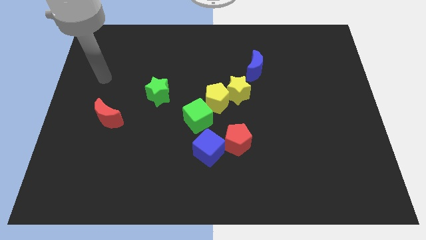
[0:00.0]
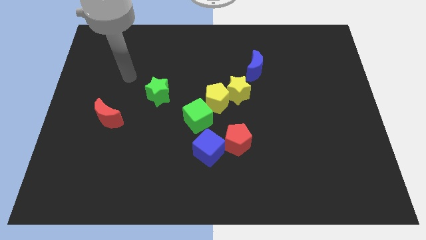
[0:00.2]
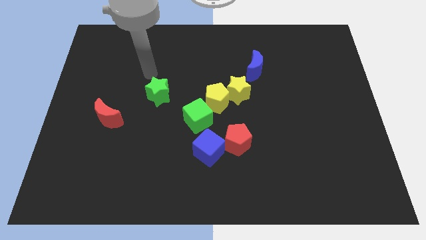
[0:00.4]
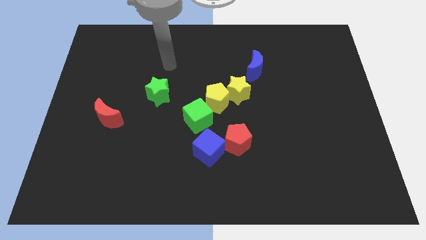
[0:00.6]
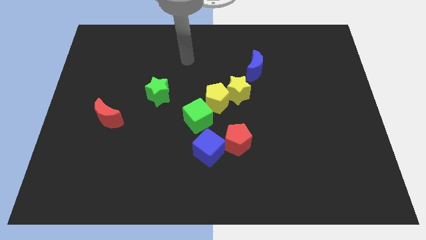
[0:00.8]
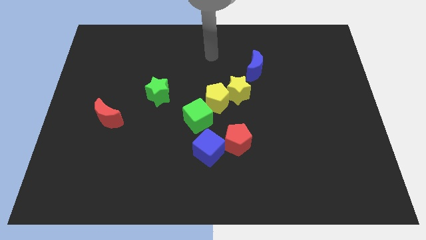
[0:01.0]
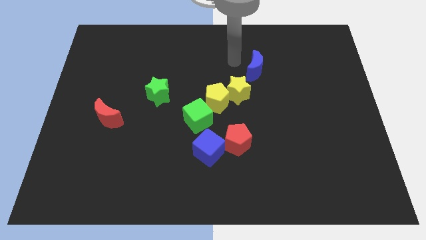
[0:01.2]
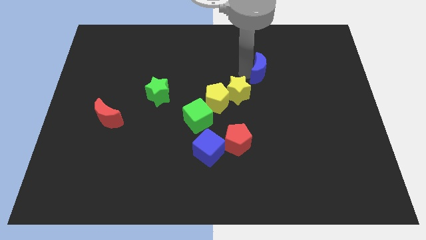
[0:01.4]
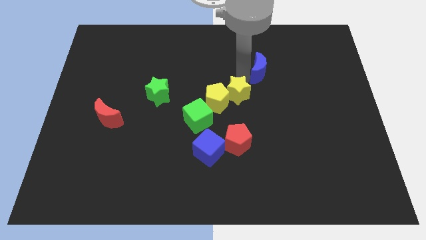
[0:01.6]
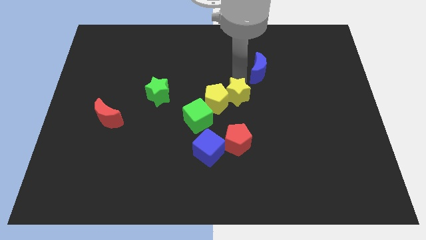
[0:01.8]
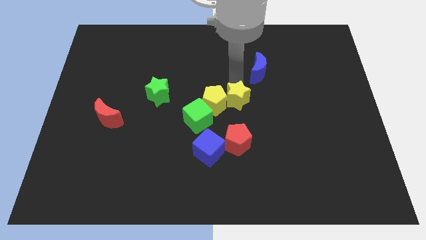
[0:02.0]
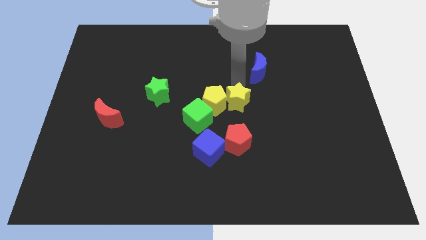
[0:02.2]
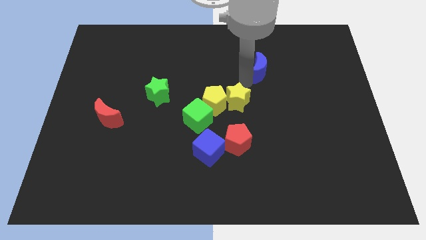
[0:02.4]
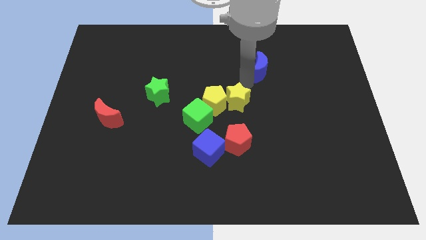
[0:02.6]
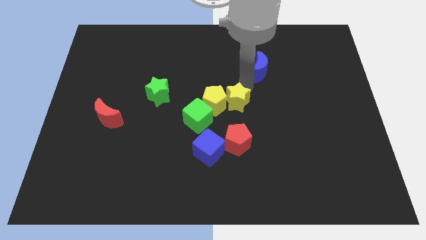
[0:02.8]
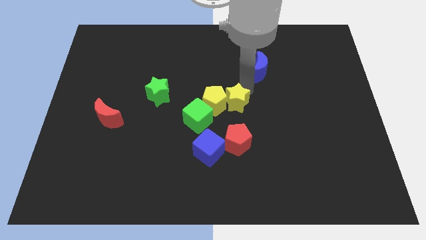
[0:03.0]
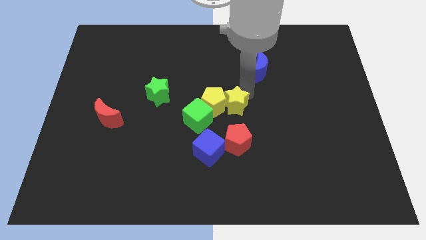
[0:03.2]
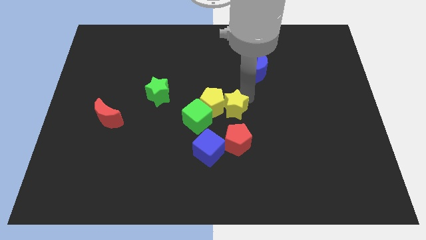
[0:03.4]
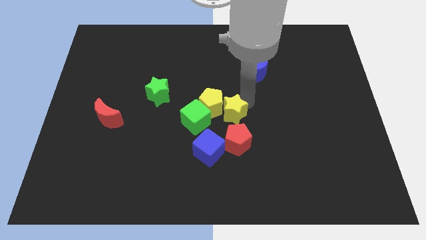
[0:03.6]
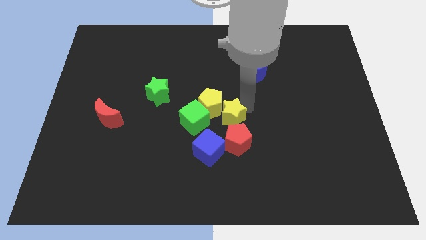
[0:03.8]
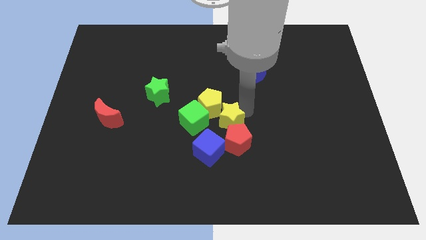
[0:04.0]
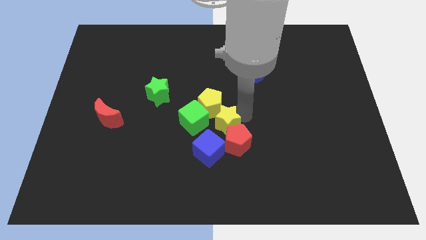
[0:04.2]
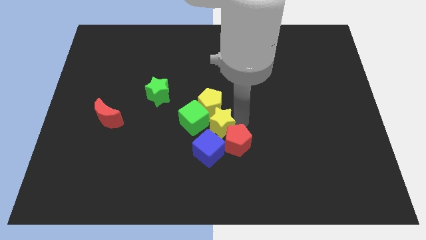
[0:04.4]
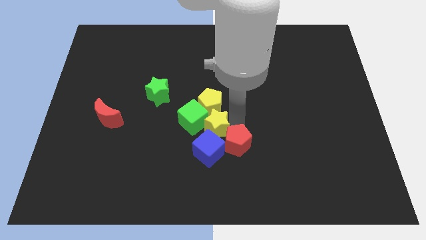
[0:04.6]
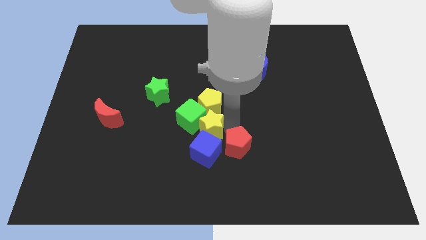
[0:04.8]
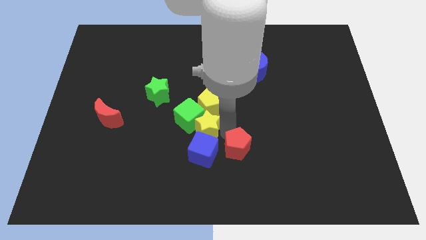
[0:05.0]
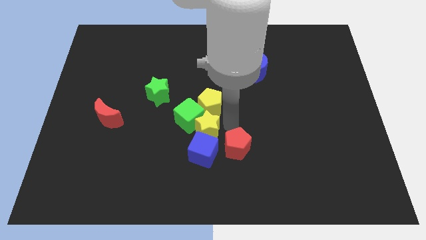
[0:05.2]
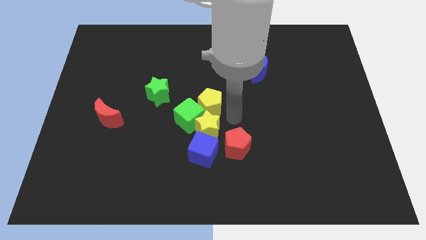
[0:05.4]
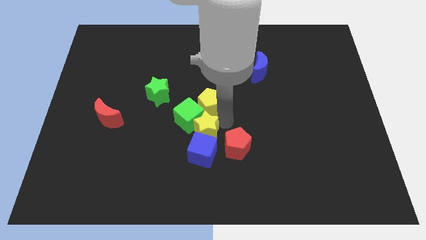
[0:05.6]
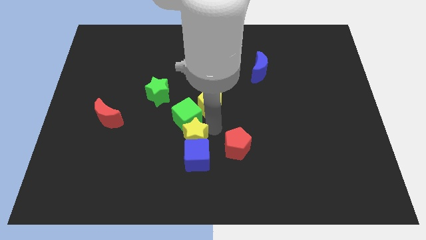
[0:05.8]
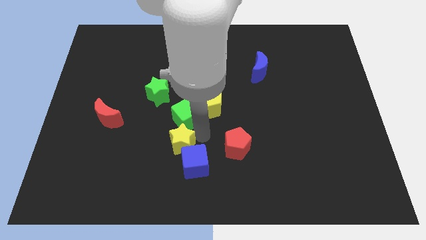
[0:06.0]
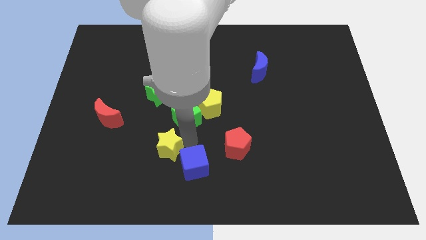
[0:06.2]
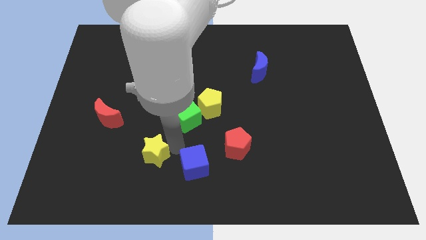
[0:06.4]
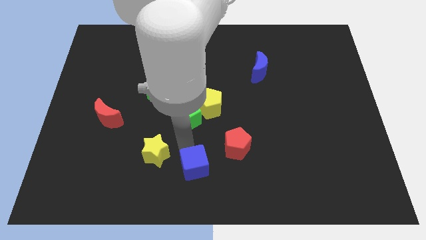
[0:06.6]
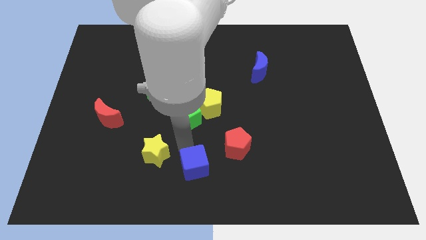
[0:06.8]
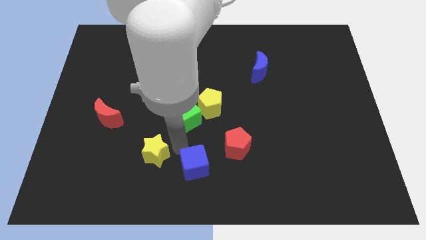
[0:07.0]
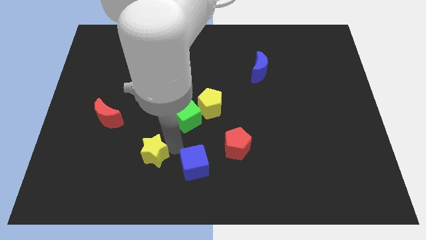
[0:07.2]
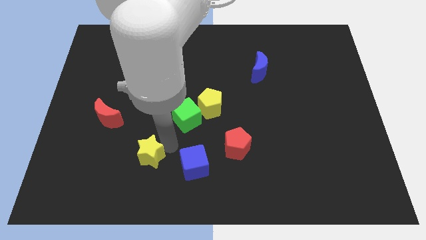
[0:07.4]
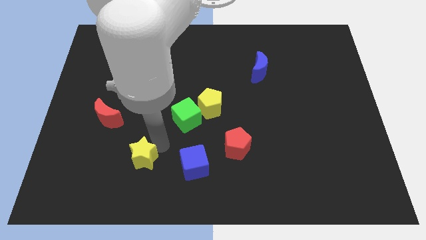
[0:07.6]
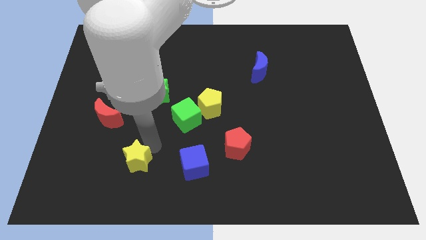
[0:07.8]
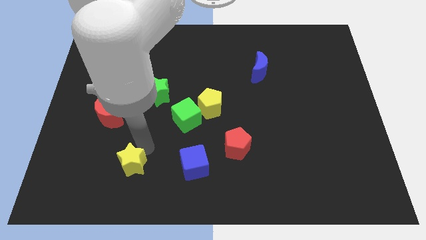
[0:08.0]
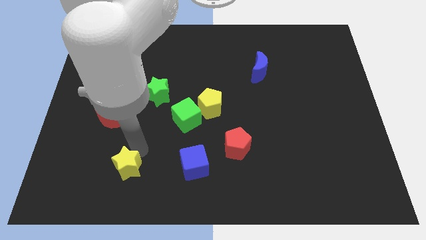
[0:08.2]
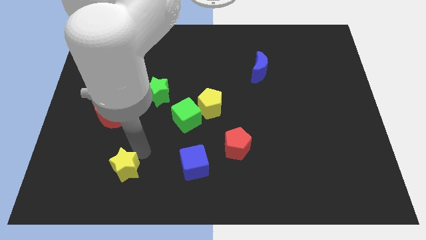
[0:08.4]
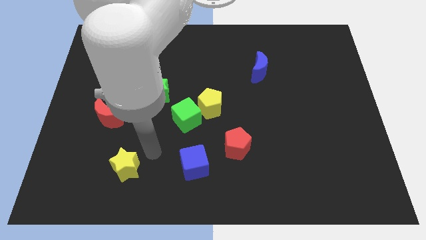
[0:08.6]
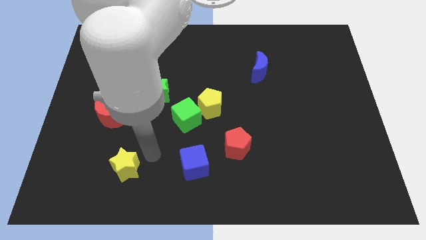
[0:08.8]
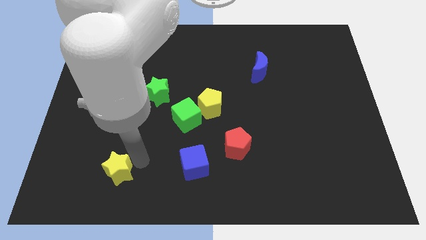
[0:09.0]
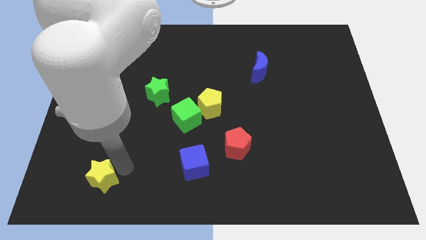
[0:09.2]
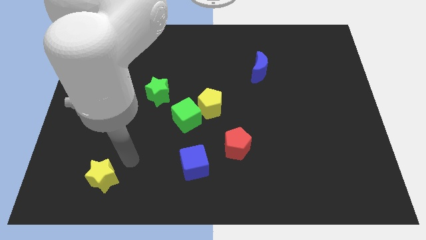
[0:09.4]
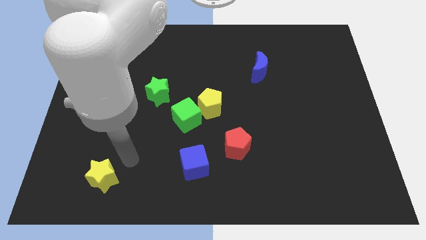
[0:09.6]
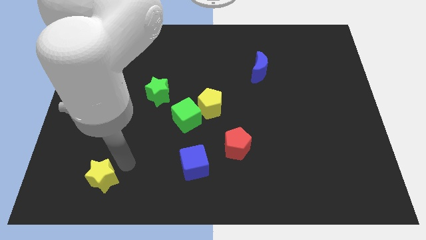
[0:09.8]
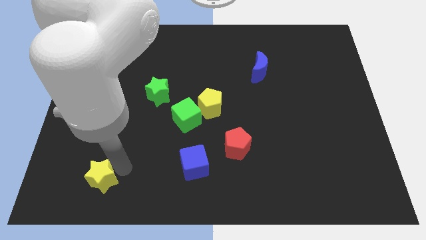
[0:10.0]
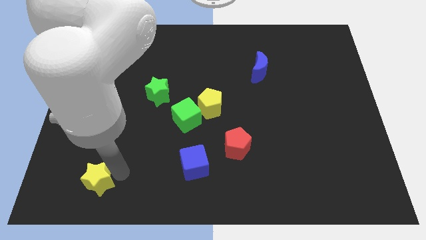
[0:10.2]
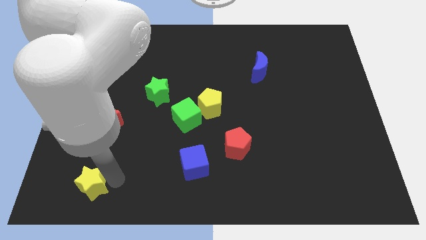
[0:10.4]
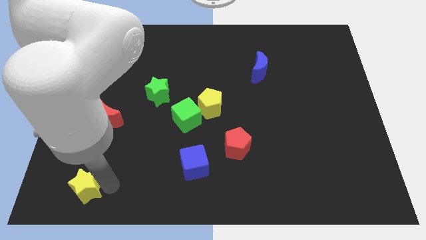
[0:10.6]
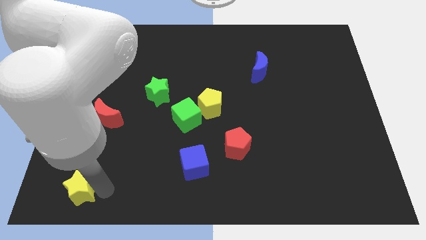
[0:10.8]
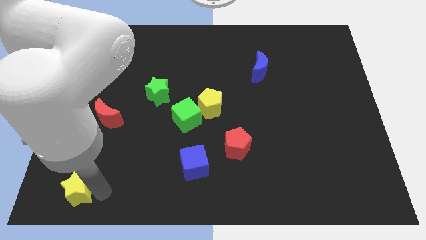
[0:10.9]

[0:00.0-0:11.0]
move the yellow star to the bottom left corner

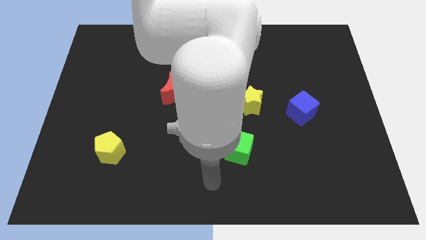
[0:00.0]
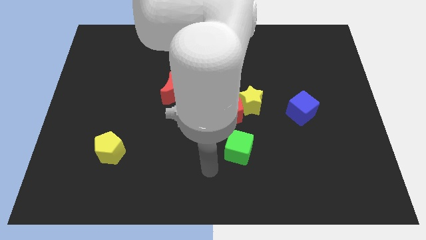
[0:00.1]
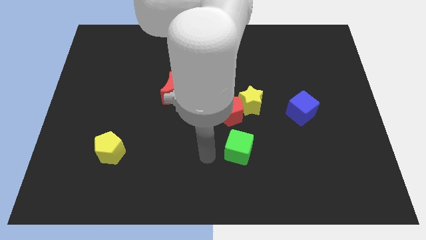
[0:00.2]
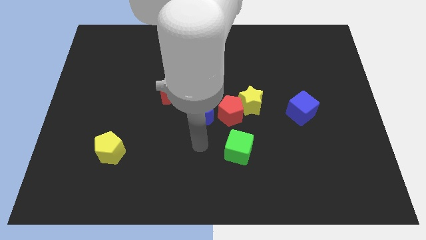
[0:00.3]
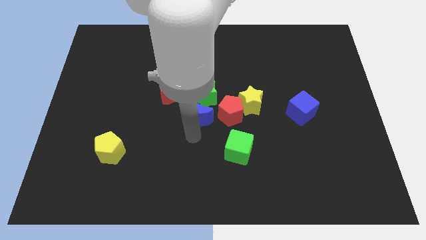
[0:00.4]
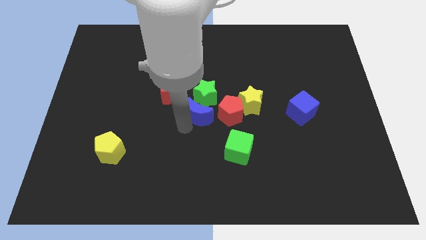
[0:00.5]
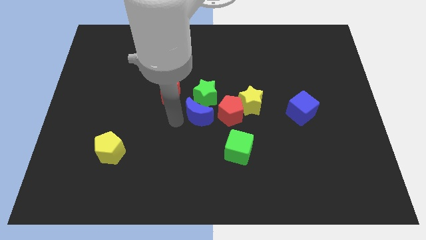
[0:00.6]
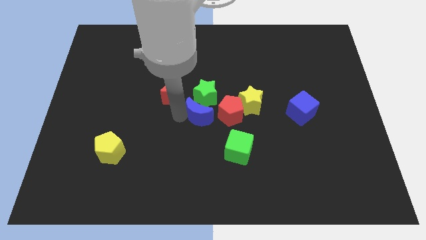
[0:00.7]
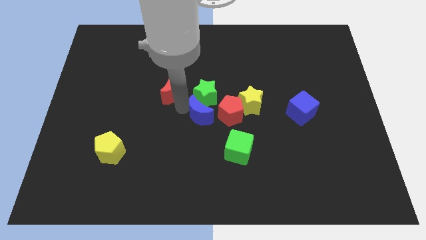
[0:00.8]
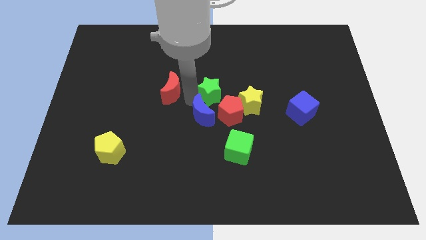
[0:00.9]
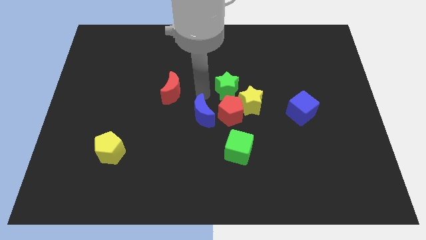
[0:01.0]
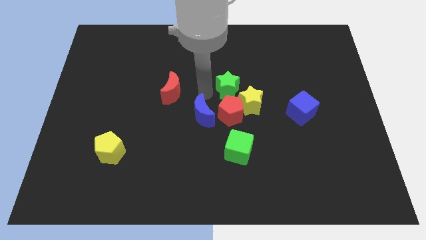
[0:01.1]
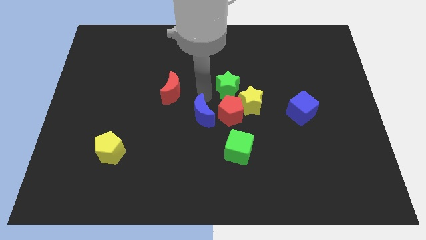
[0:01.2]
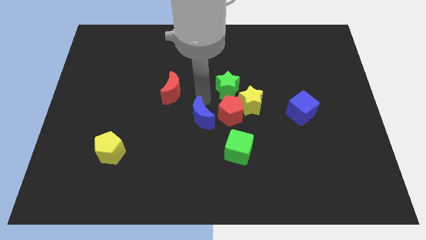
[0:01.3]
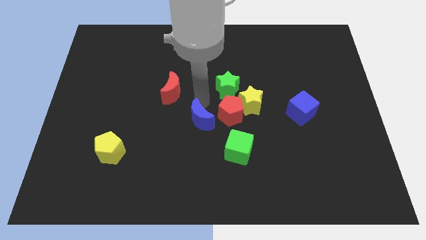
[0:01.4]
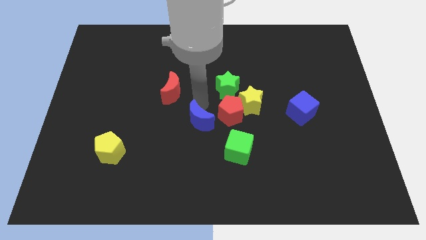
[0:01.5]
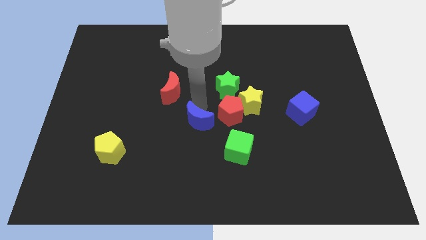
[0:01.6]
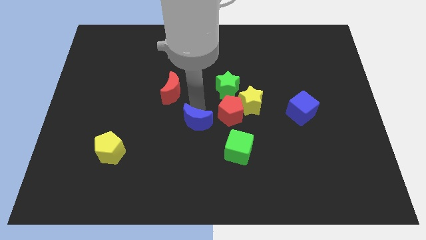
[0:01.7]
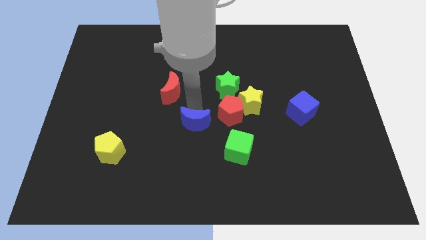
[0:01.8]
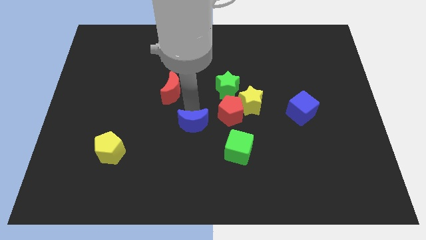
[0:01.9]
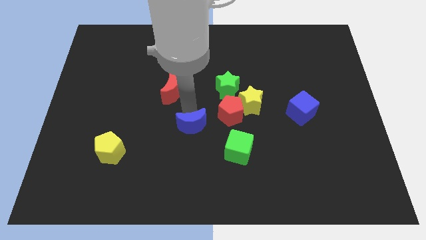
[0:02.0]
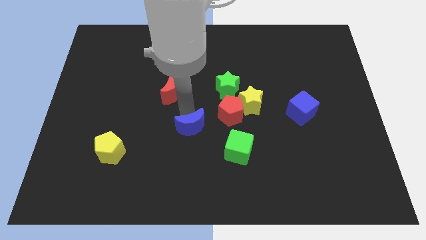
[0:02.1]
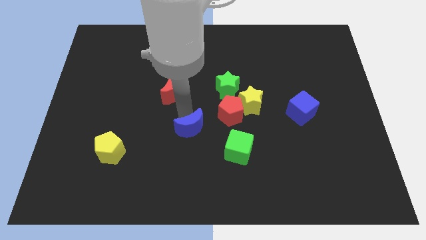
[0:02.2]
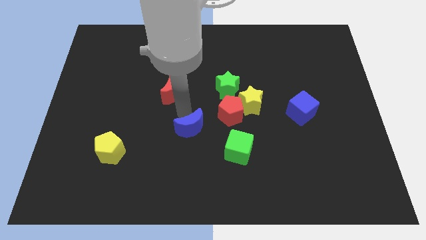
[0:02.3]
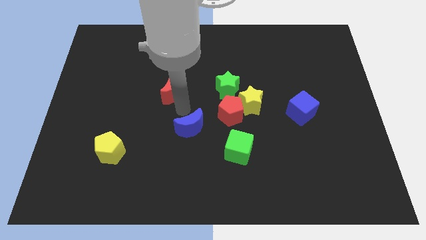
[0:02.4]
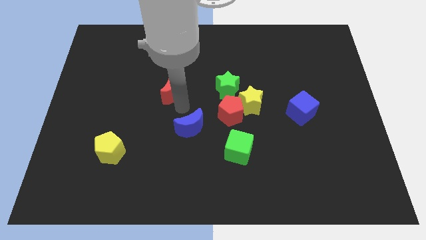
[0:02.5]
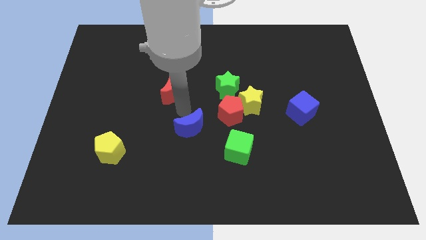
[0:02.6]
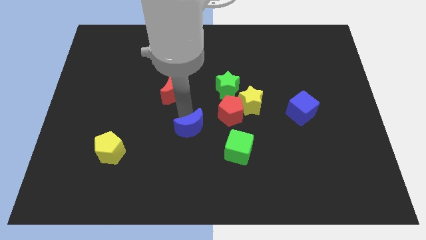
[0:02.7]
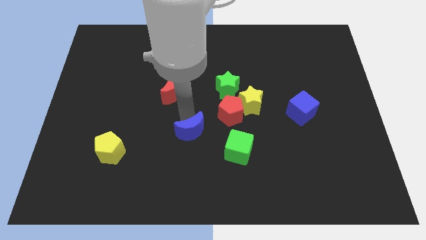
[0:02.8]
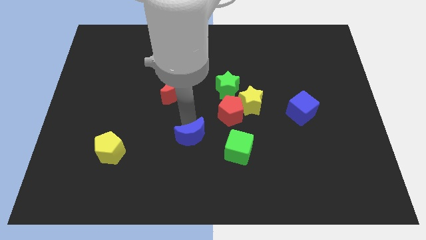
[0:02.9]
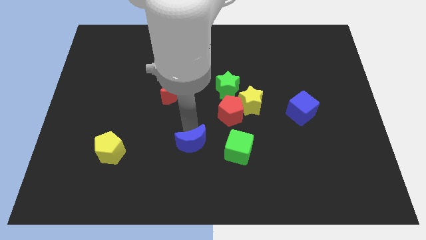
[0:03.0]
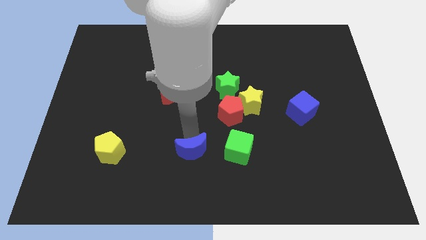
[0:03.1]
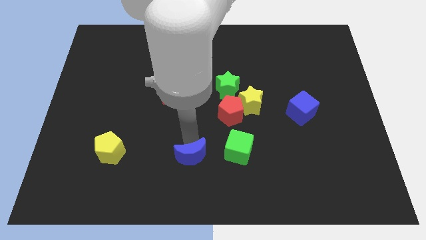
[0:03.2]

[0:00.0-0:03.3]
push the blue moon to the bottom side
